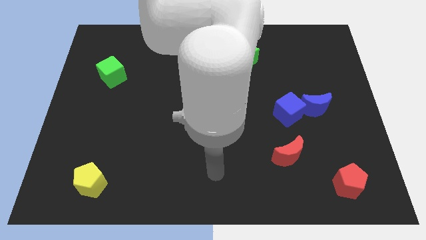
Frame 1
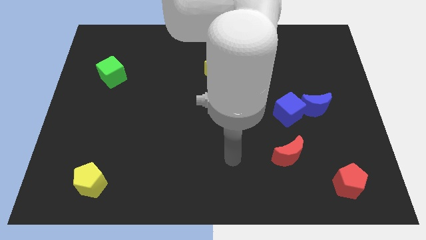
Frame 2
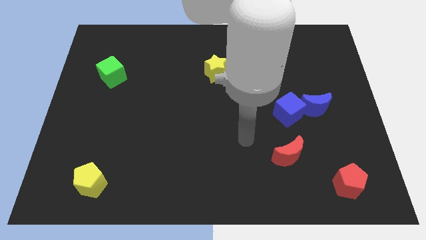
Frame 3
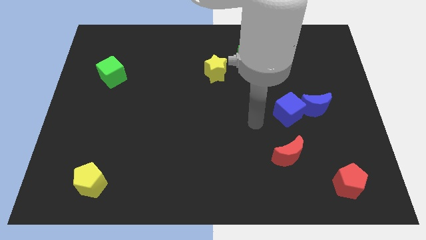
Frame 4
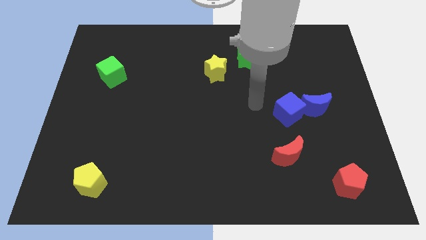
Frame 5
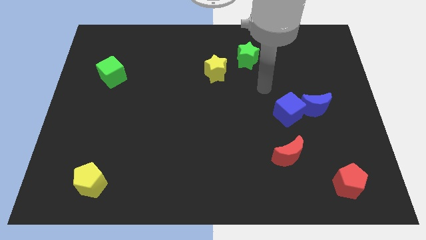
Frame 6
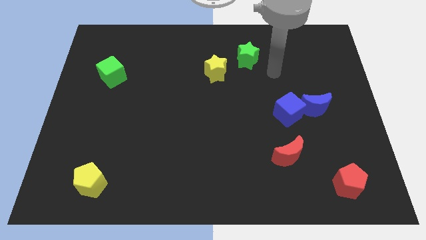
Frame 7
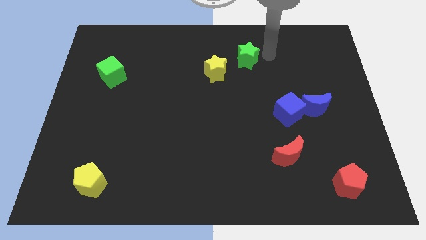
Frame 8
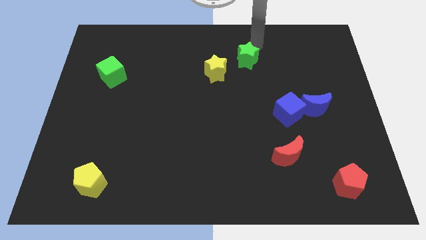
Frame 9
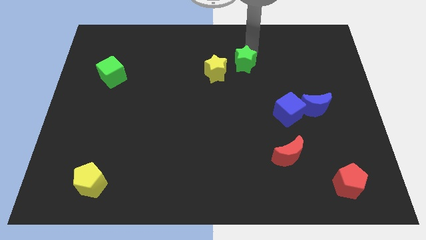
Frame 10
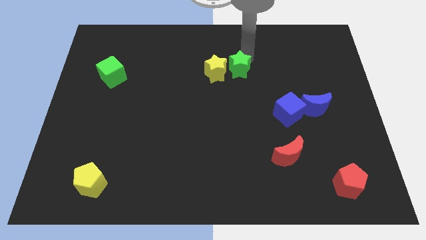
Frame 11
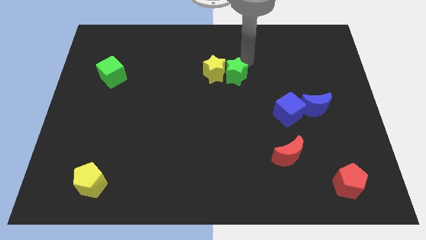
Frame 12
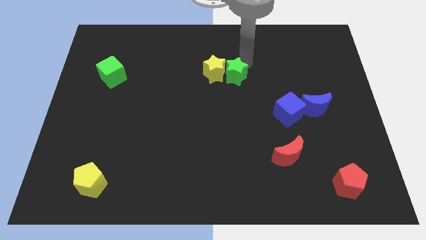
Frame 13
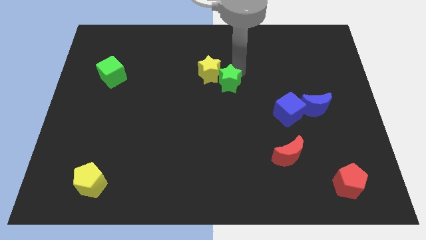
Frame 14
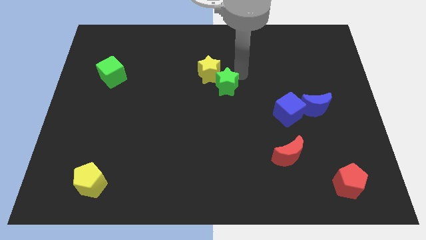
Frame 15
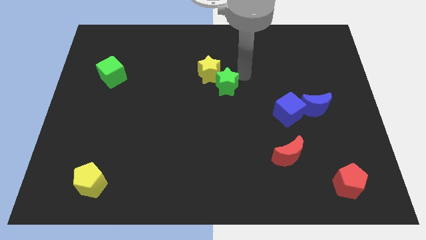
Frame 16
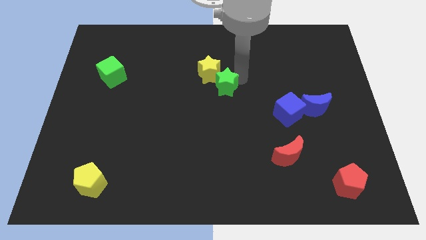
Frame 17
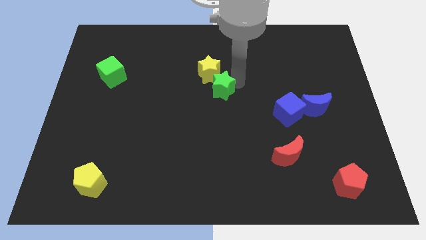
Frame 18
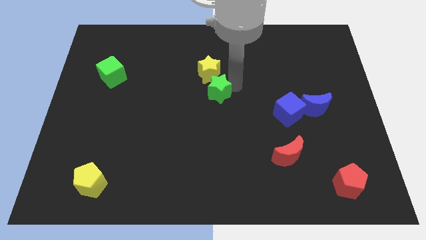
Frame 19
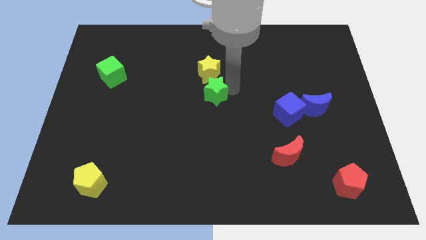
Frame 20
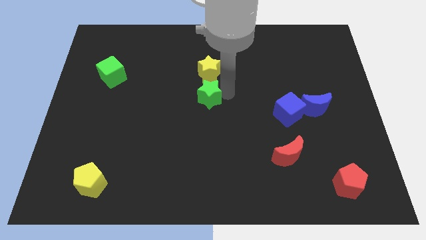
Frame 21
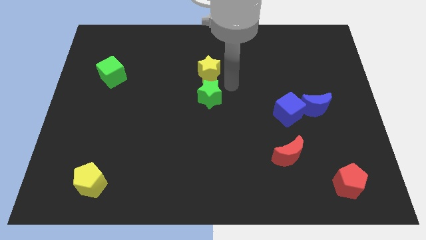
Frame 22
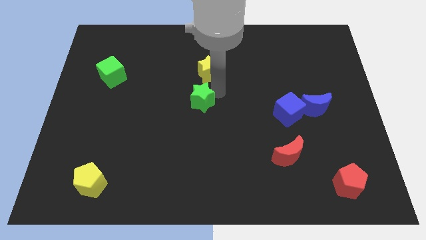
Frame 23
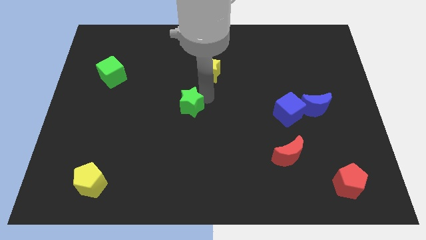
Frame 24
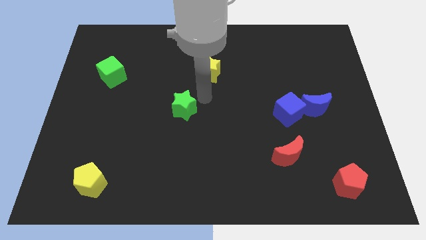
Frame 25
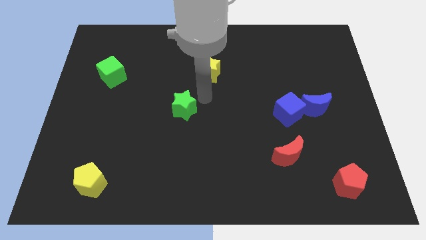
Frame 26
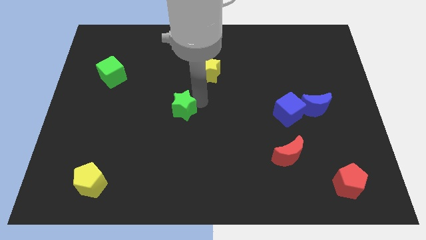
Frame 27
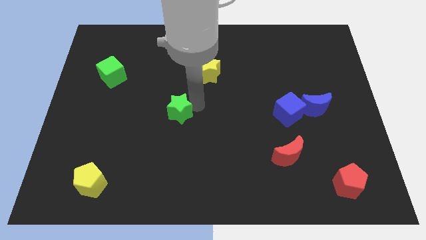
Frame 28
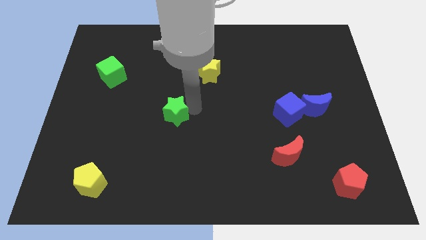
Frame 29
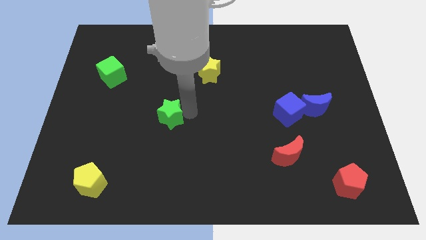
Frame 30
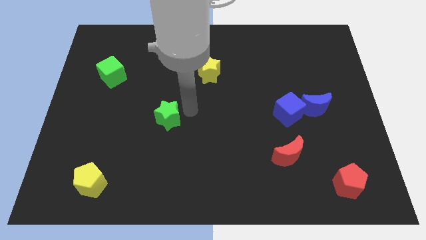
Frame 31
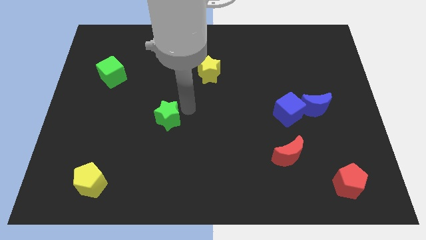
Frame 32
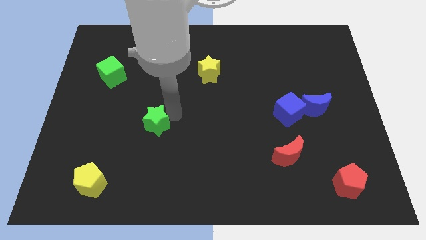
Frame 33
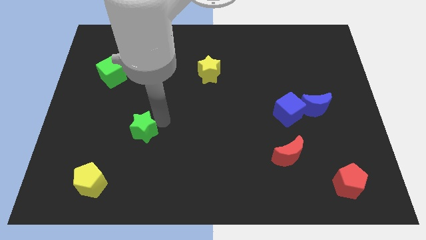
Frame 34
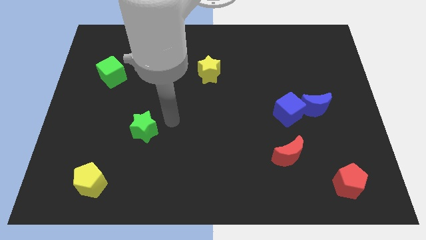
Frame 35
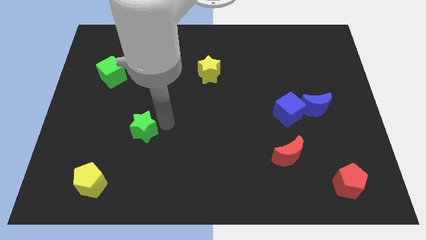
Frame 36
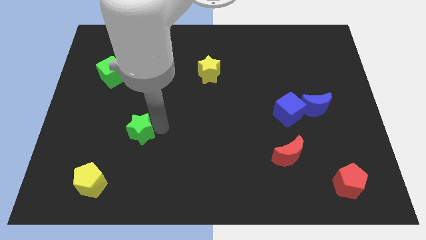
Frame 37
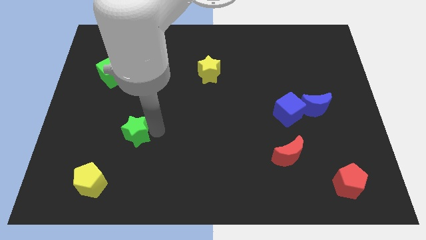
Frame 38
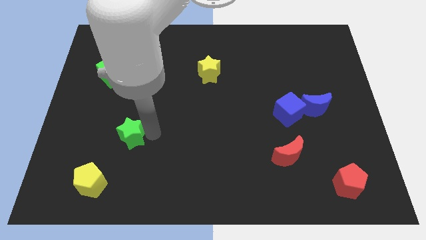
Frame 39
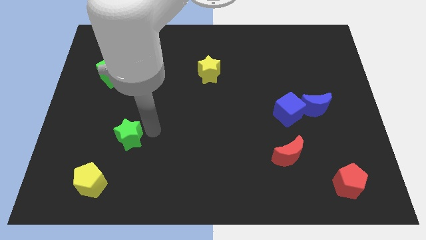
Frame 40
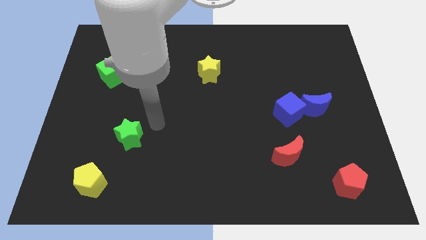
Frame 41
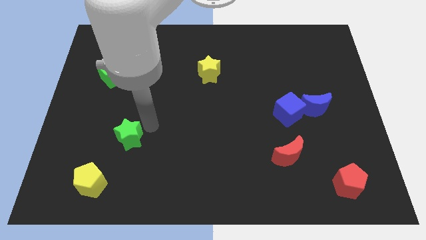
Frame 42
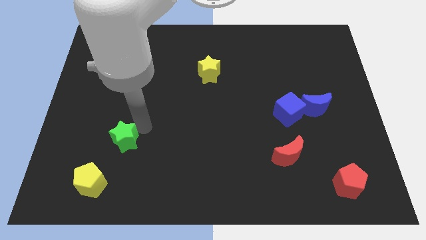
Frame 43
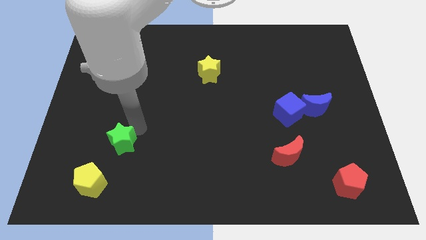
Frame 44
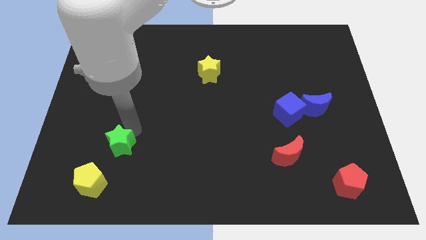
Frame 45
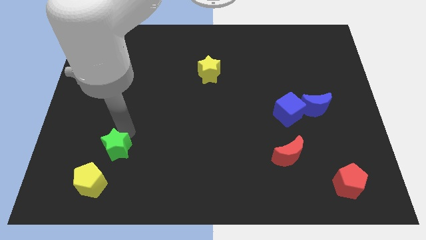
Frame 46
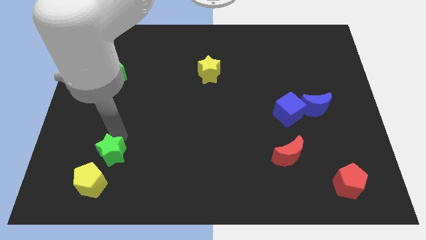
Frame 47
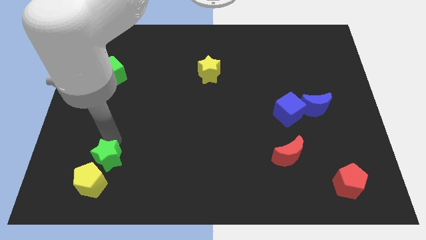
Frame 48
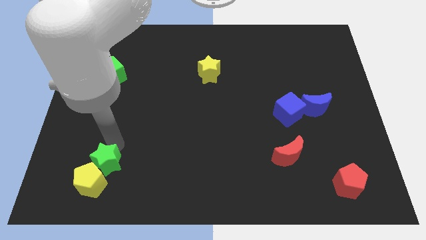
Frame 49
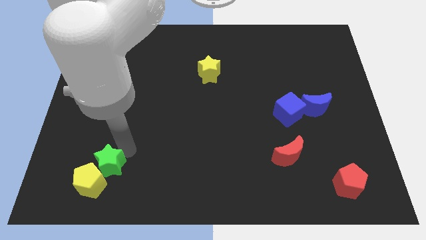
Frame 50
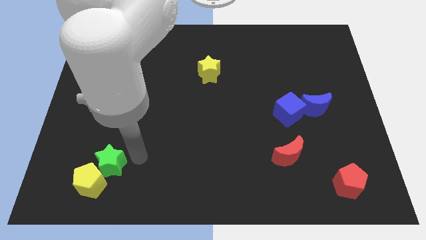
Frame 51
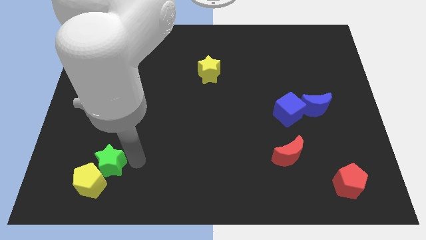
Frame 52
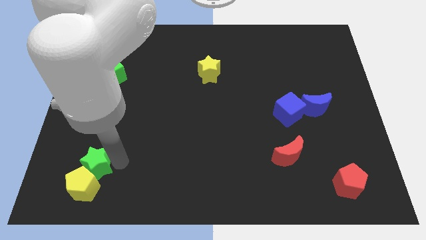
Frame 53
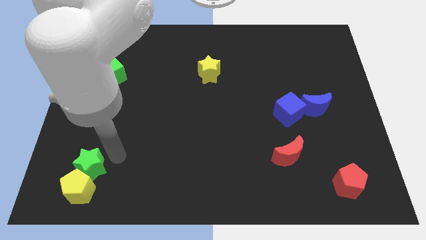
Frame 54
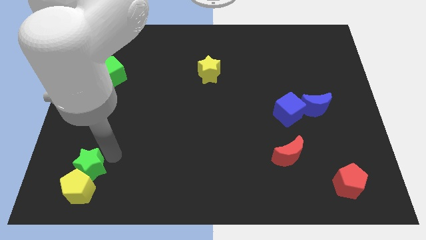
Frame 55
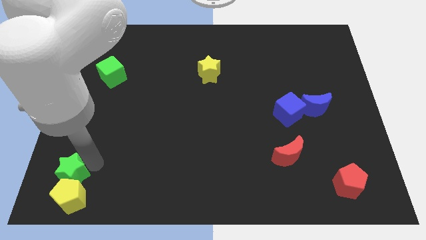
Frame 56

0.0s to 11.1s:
slide the green star to the bottom left
